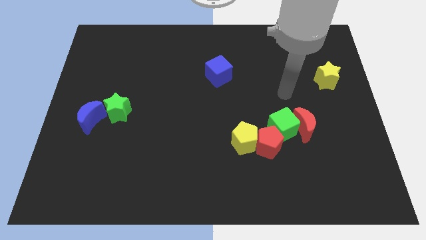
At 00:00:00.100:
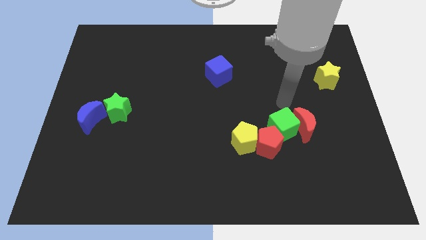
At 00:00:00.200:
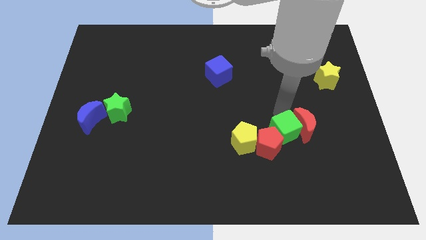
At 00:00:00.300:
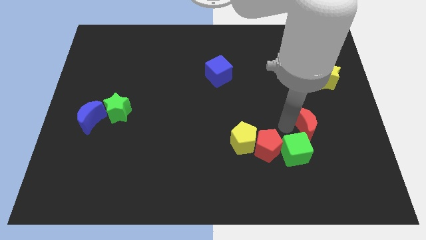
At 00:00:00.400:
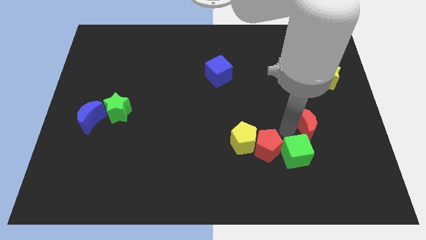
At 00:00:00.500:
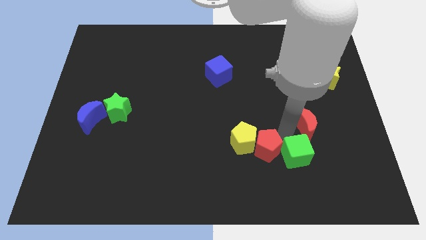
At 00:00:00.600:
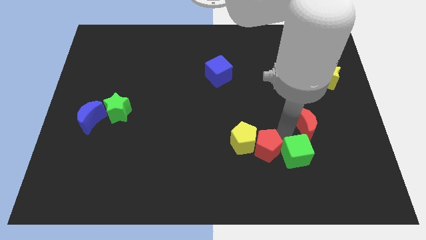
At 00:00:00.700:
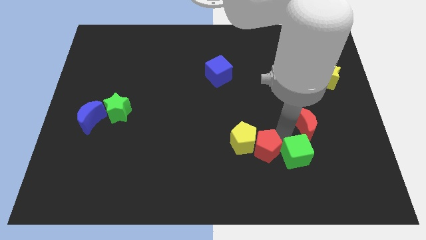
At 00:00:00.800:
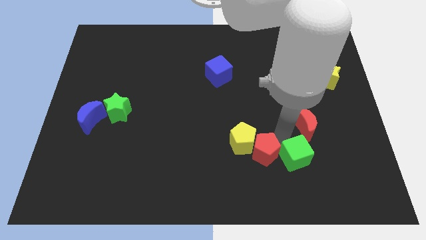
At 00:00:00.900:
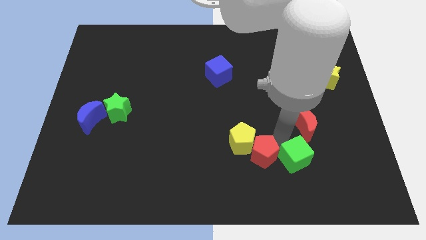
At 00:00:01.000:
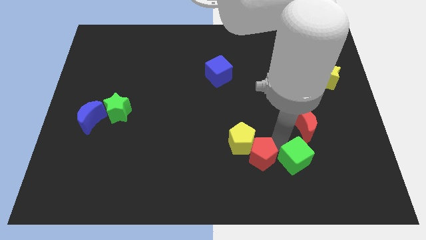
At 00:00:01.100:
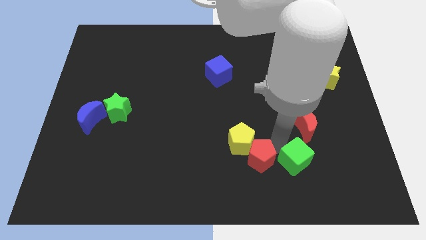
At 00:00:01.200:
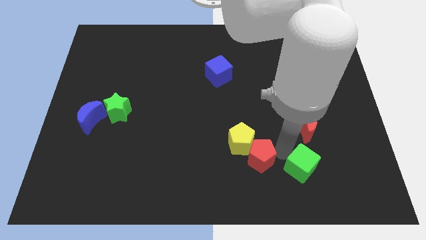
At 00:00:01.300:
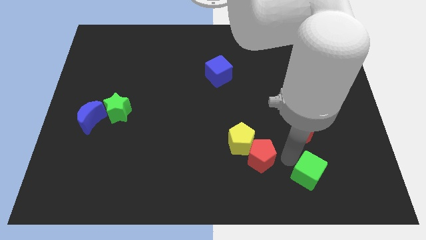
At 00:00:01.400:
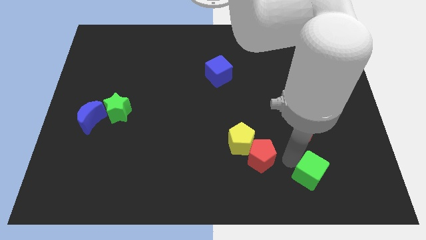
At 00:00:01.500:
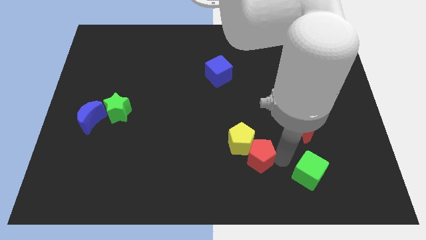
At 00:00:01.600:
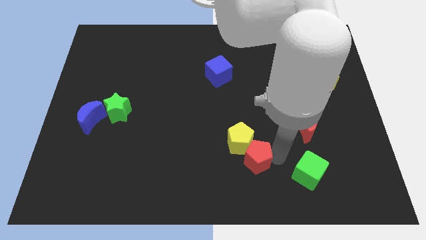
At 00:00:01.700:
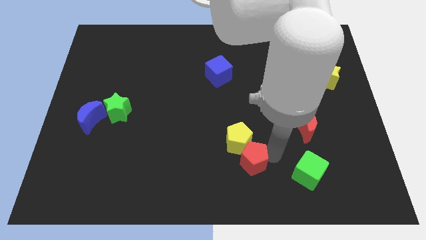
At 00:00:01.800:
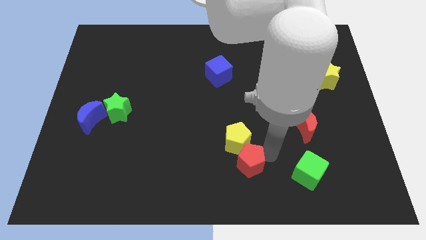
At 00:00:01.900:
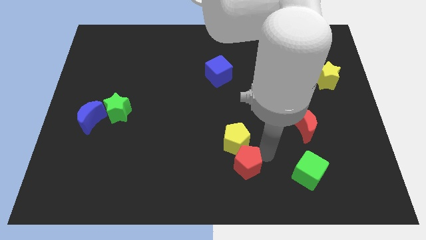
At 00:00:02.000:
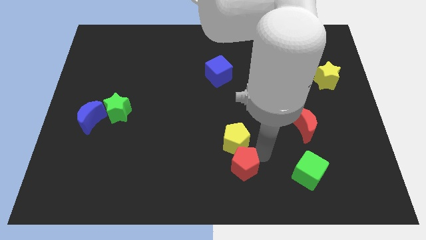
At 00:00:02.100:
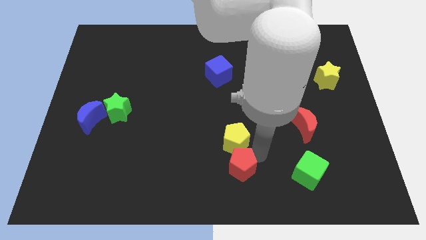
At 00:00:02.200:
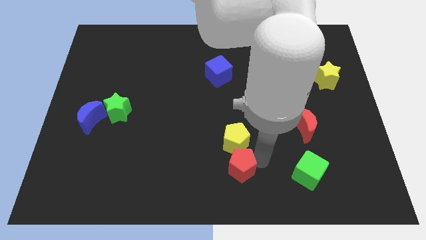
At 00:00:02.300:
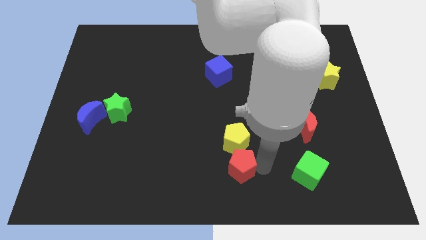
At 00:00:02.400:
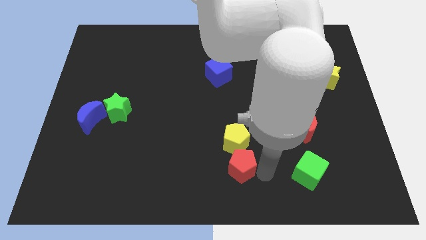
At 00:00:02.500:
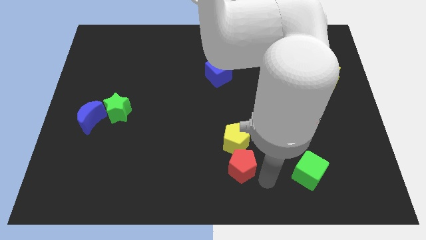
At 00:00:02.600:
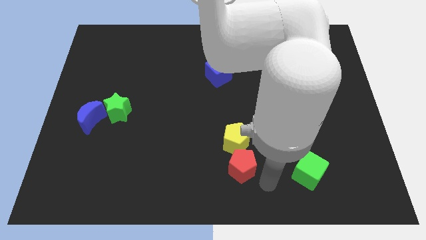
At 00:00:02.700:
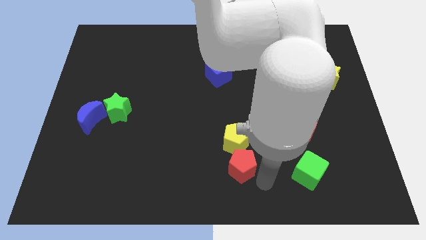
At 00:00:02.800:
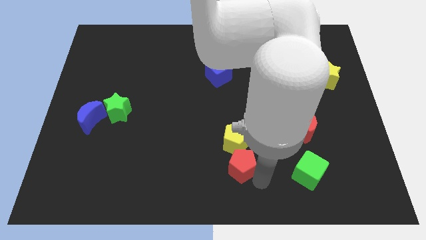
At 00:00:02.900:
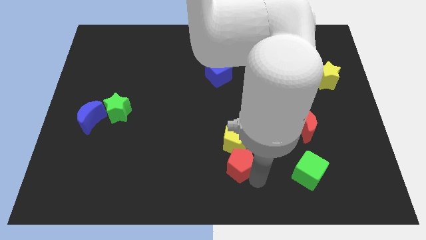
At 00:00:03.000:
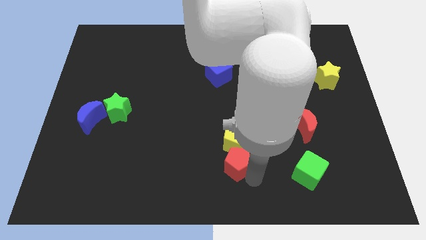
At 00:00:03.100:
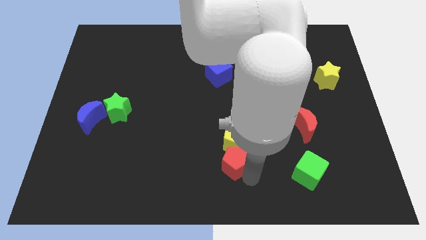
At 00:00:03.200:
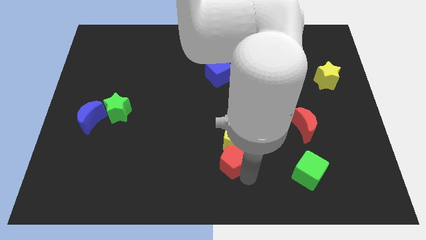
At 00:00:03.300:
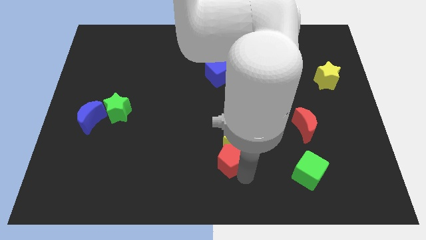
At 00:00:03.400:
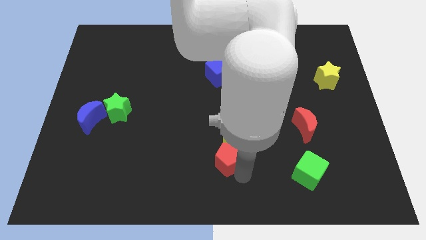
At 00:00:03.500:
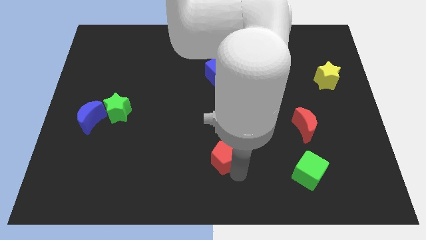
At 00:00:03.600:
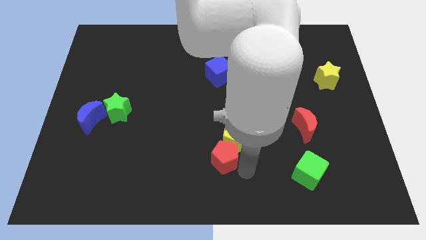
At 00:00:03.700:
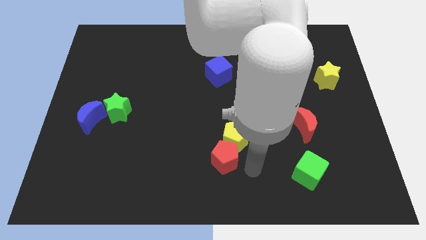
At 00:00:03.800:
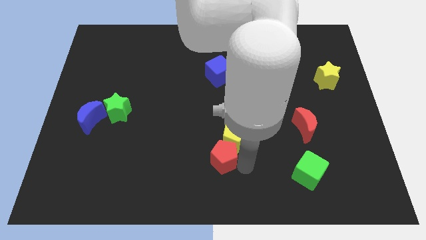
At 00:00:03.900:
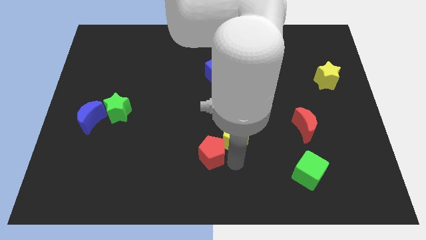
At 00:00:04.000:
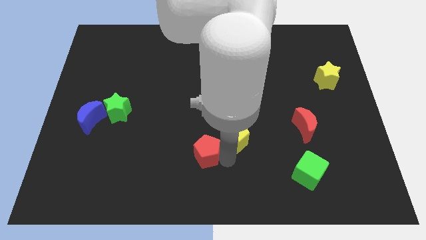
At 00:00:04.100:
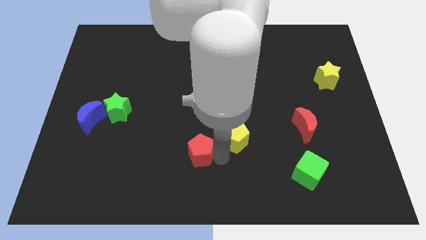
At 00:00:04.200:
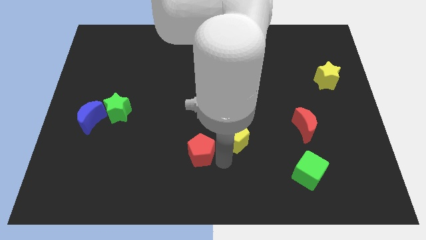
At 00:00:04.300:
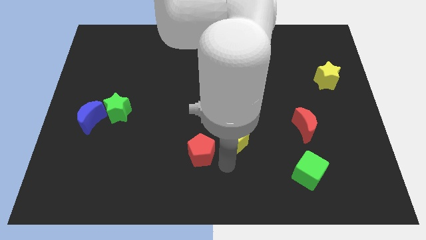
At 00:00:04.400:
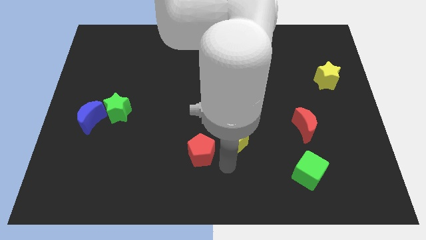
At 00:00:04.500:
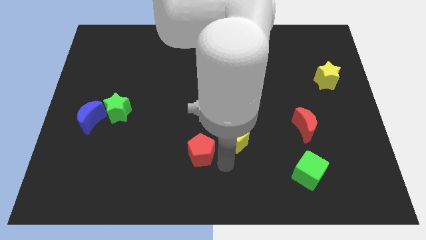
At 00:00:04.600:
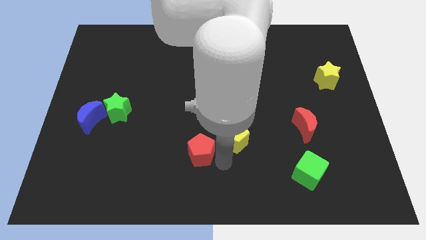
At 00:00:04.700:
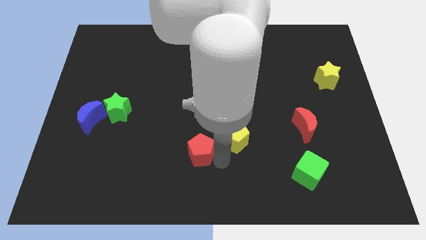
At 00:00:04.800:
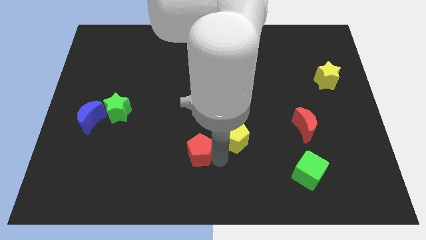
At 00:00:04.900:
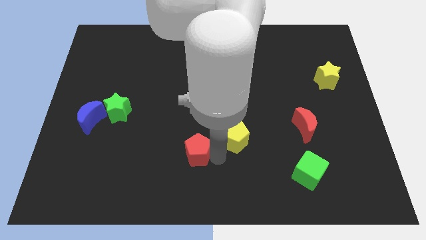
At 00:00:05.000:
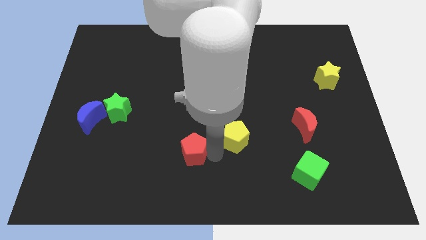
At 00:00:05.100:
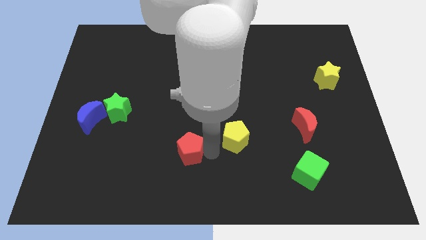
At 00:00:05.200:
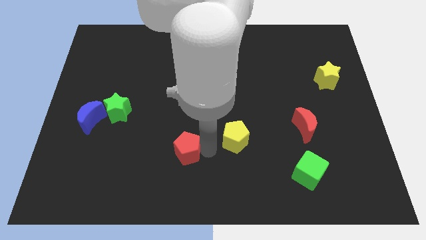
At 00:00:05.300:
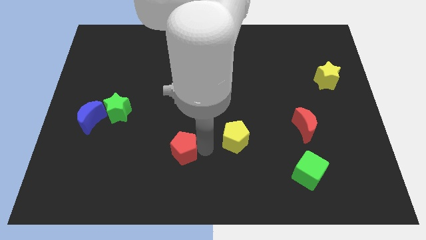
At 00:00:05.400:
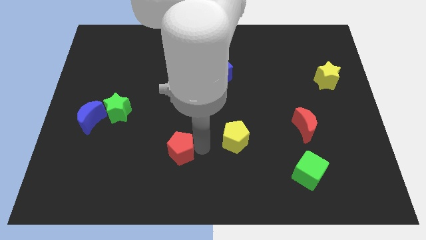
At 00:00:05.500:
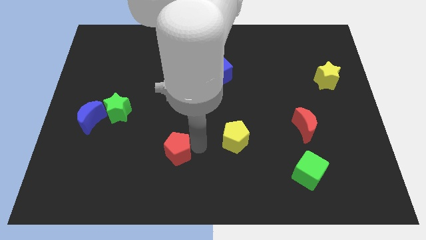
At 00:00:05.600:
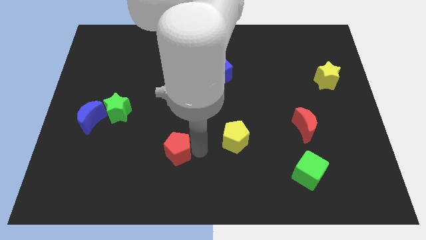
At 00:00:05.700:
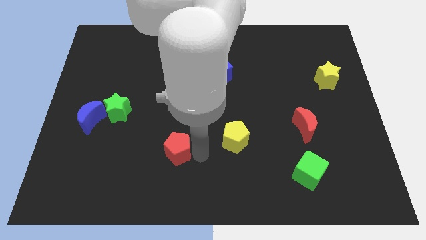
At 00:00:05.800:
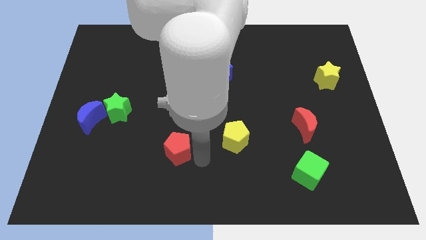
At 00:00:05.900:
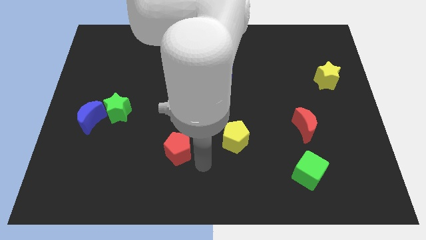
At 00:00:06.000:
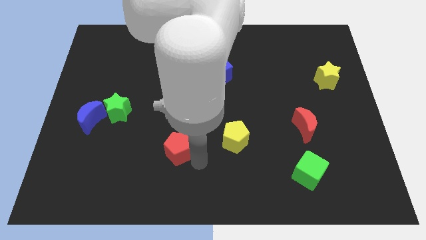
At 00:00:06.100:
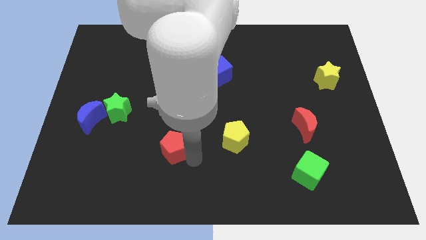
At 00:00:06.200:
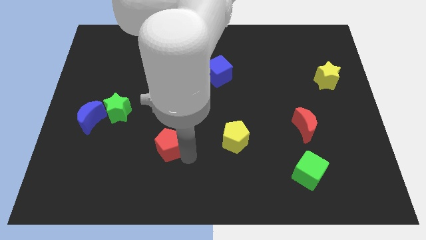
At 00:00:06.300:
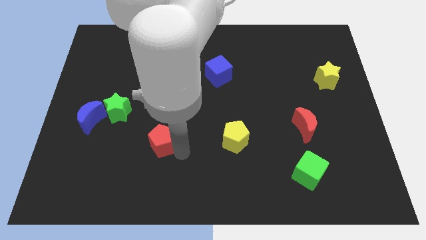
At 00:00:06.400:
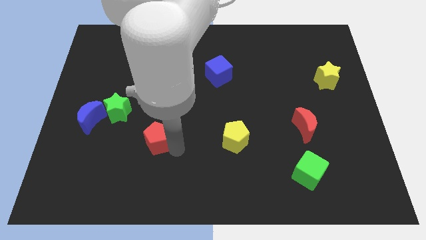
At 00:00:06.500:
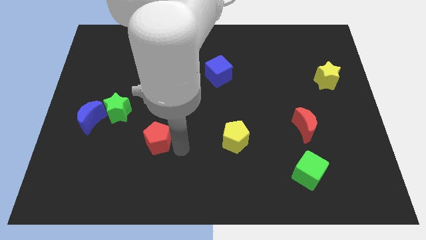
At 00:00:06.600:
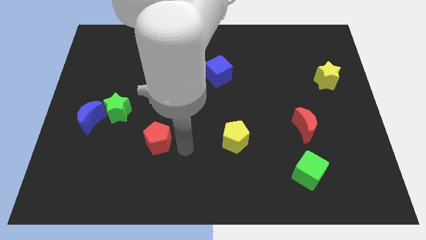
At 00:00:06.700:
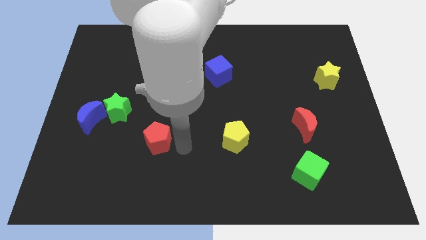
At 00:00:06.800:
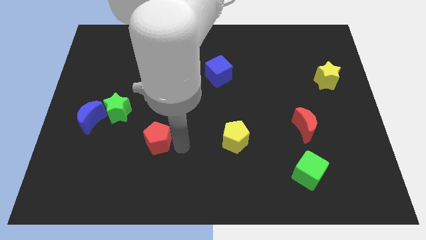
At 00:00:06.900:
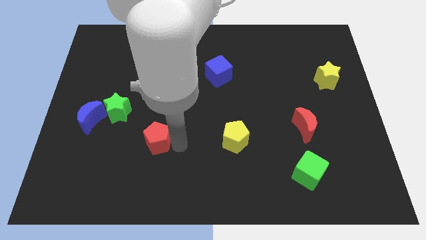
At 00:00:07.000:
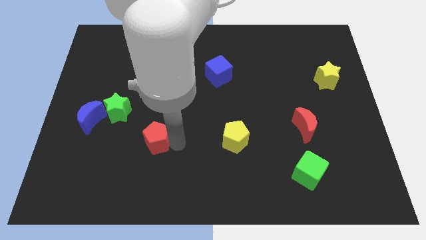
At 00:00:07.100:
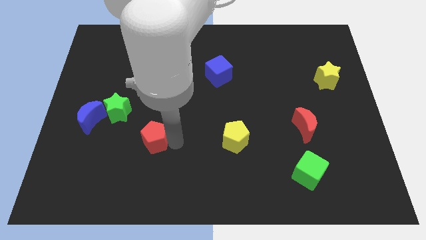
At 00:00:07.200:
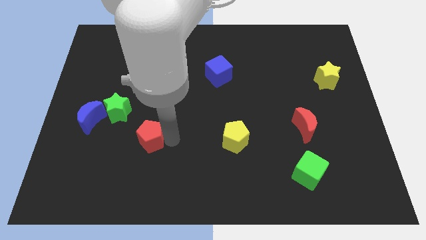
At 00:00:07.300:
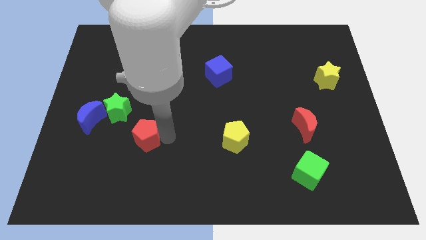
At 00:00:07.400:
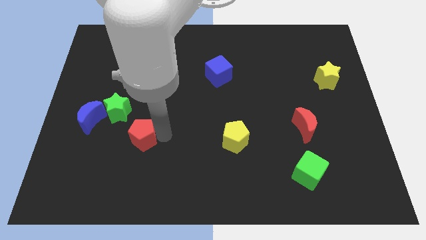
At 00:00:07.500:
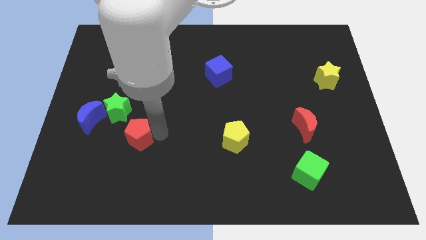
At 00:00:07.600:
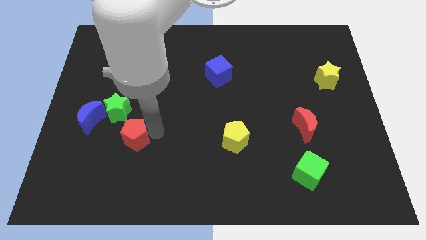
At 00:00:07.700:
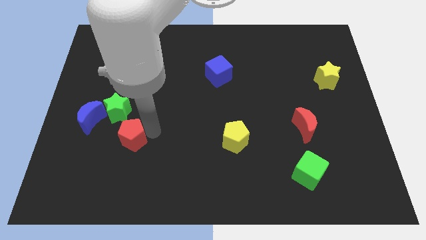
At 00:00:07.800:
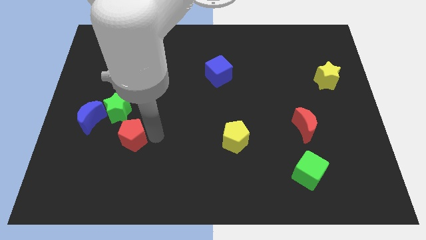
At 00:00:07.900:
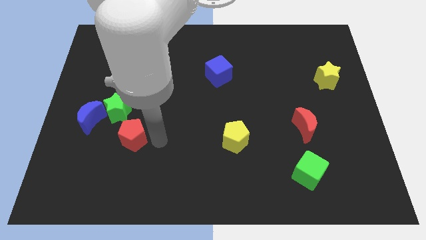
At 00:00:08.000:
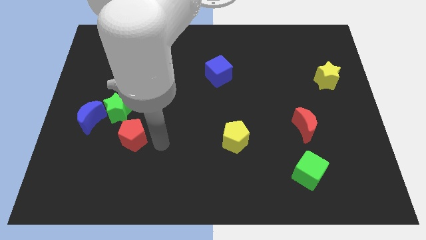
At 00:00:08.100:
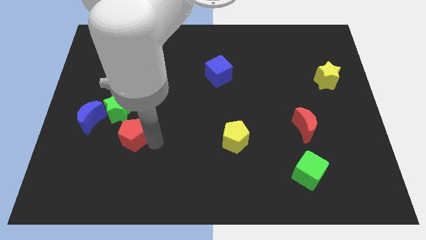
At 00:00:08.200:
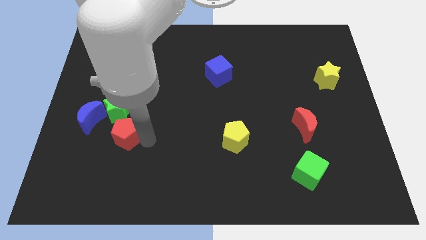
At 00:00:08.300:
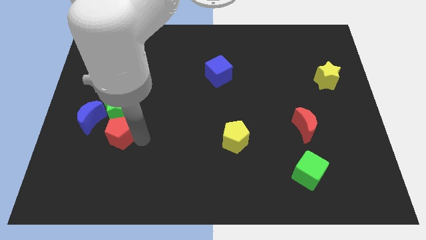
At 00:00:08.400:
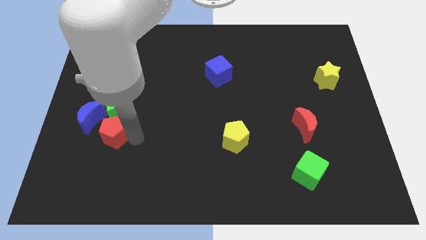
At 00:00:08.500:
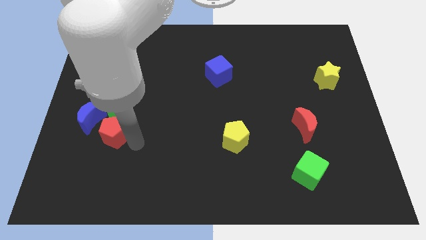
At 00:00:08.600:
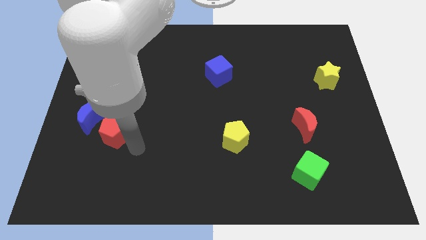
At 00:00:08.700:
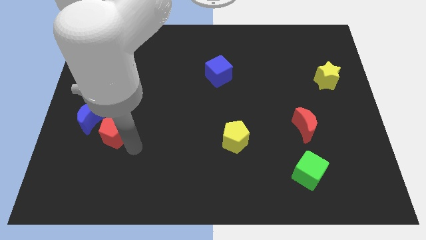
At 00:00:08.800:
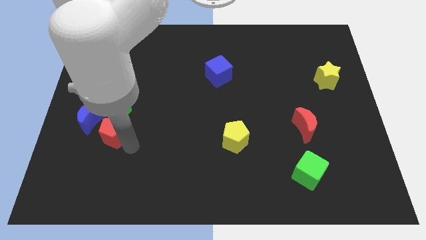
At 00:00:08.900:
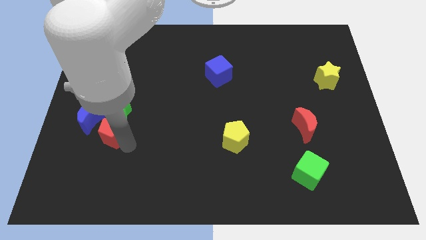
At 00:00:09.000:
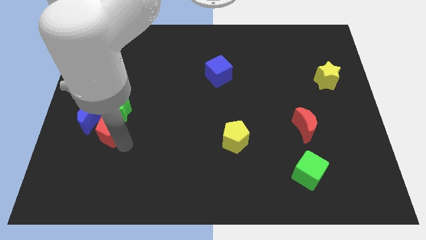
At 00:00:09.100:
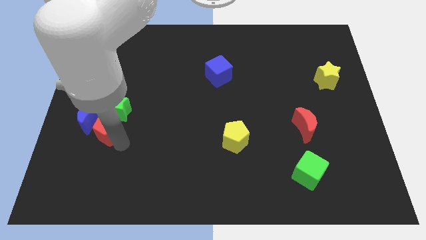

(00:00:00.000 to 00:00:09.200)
move the red pentagon to the blue moon
